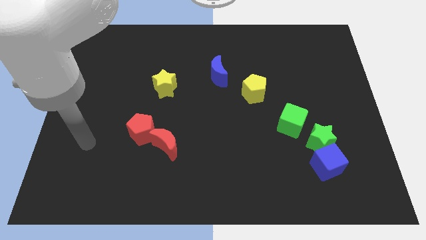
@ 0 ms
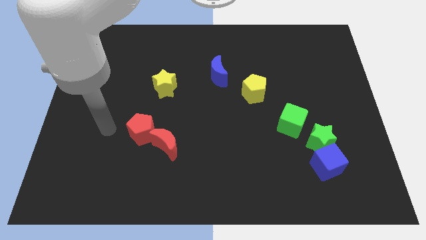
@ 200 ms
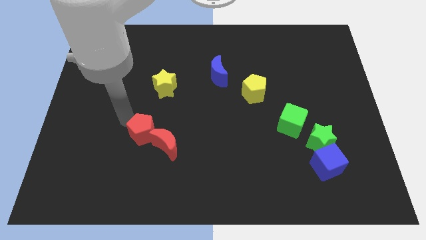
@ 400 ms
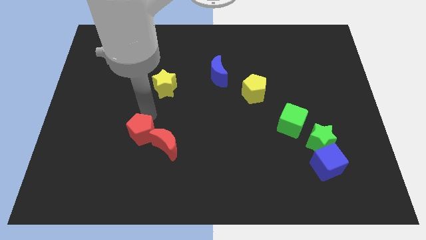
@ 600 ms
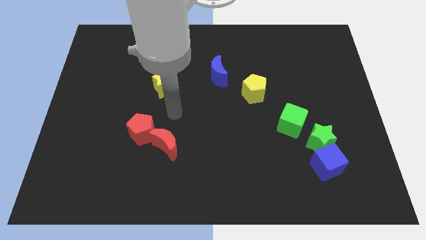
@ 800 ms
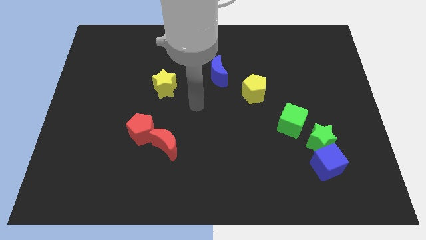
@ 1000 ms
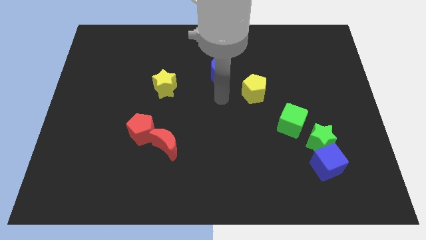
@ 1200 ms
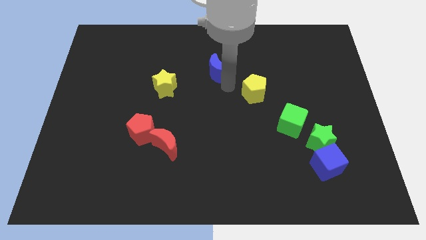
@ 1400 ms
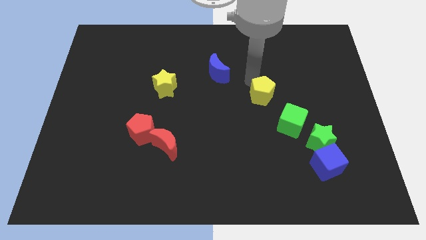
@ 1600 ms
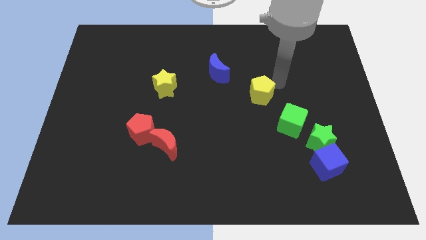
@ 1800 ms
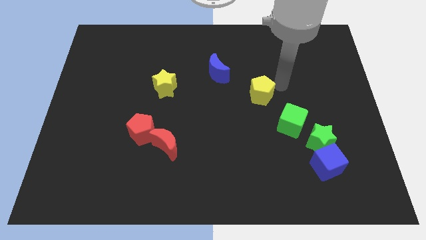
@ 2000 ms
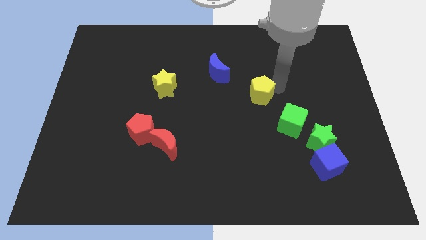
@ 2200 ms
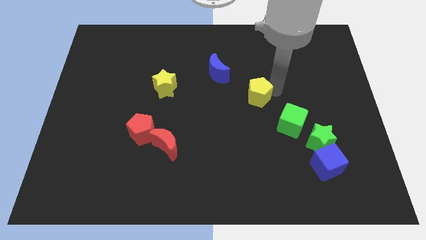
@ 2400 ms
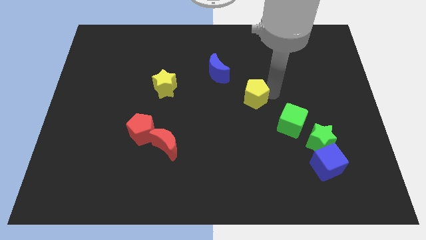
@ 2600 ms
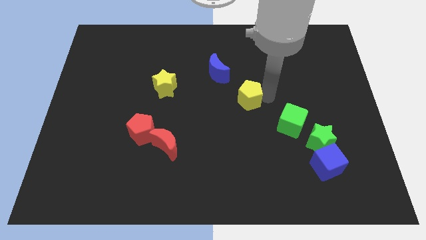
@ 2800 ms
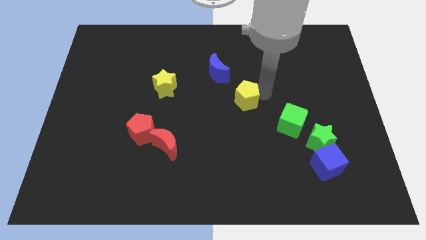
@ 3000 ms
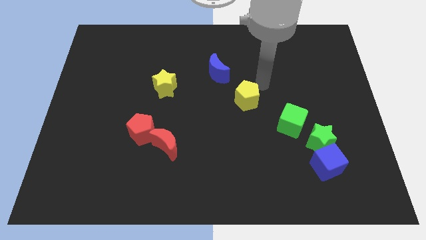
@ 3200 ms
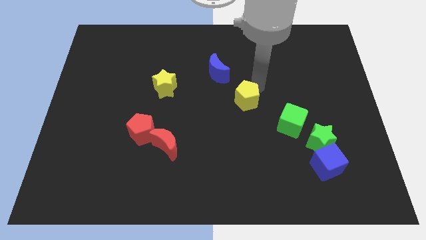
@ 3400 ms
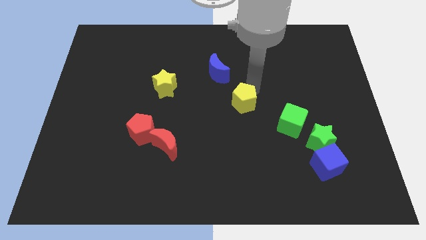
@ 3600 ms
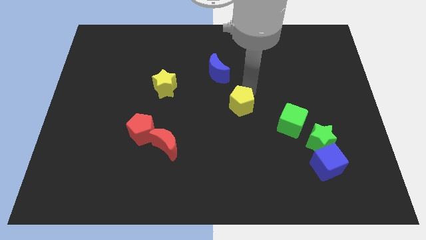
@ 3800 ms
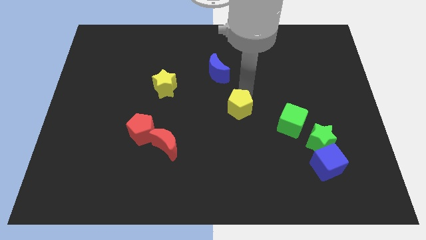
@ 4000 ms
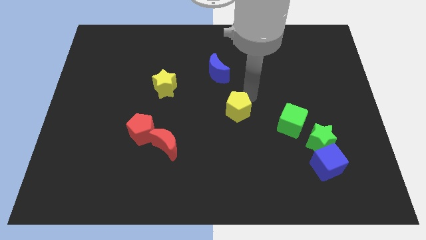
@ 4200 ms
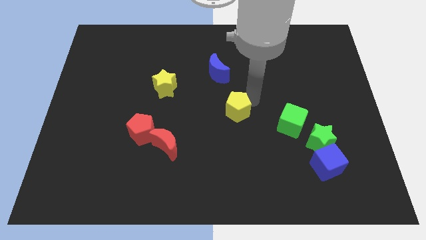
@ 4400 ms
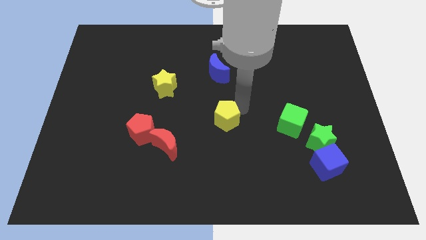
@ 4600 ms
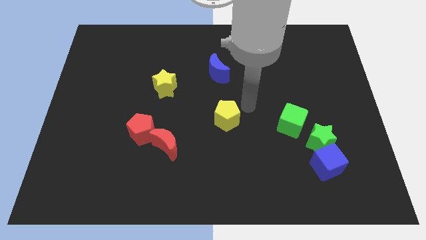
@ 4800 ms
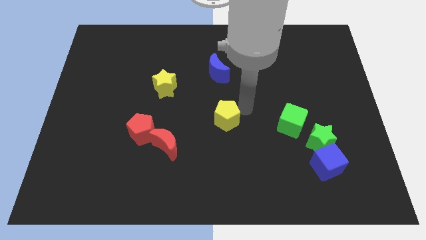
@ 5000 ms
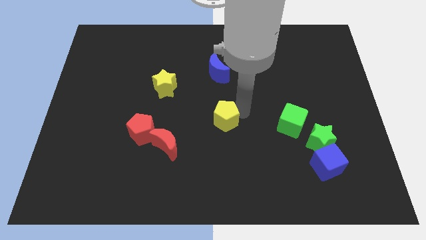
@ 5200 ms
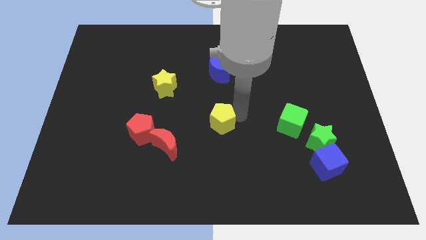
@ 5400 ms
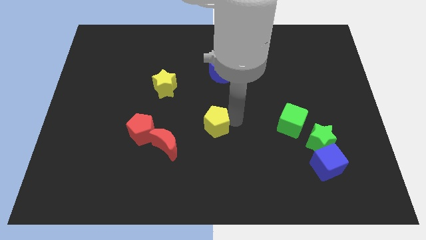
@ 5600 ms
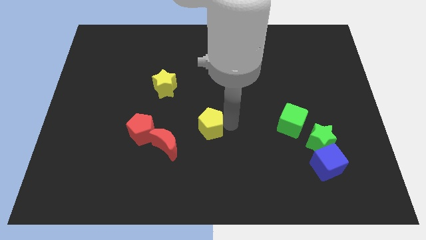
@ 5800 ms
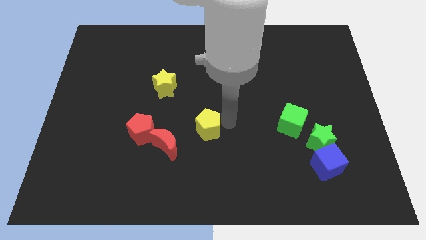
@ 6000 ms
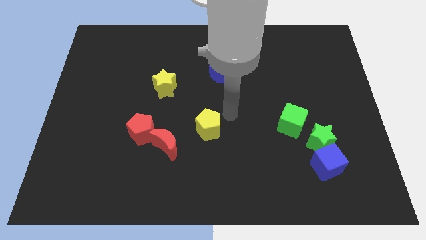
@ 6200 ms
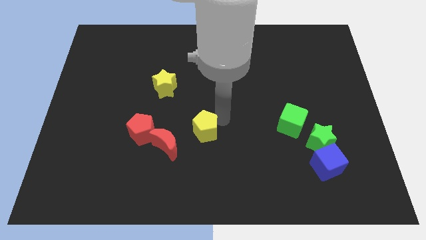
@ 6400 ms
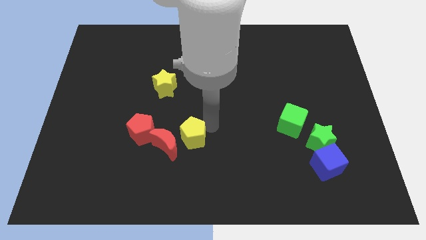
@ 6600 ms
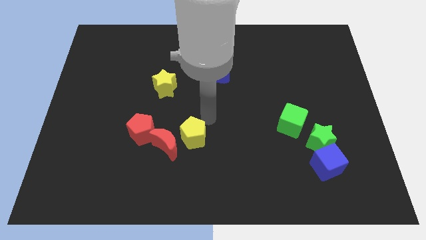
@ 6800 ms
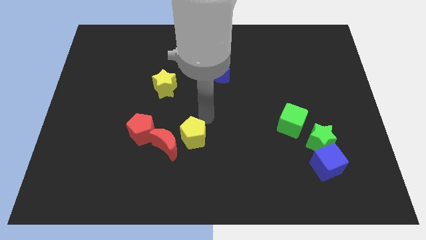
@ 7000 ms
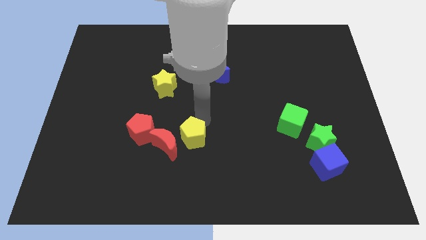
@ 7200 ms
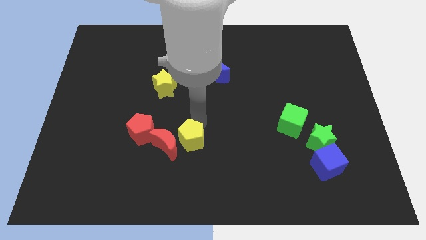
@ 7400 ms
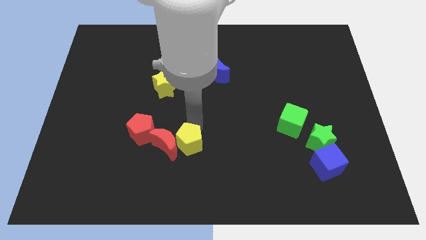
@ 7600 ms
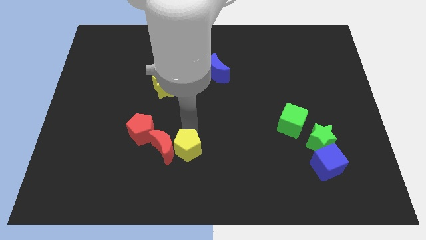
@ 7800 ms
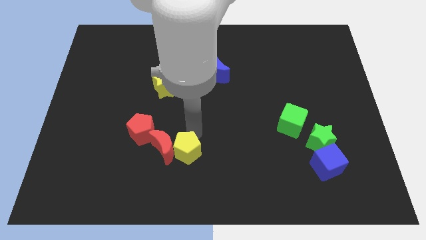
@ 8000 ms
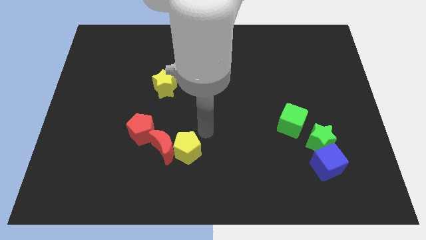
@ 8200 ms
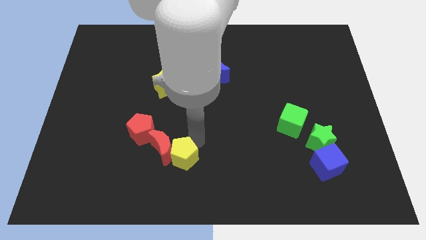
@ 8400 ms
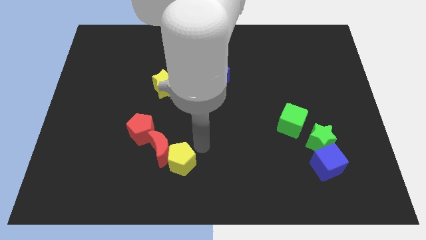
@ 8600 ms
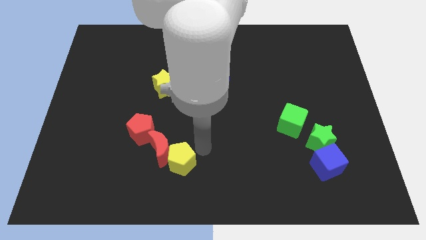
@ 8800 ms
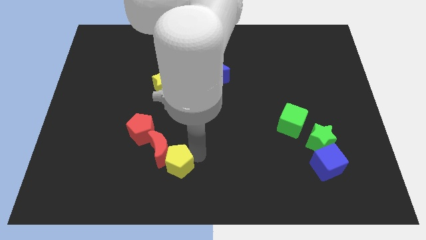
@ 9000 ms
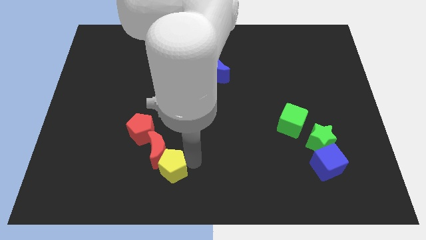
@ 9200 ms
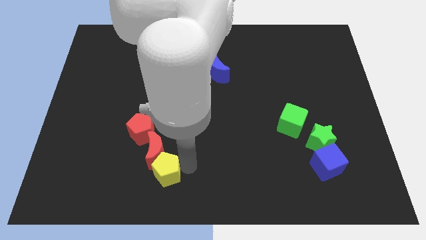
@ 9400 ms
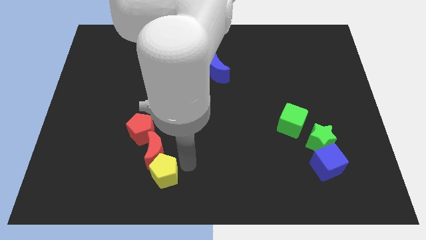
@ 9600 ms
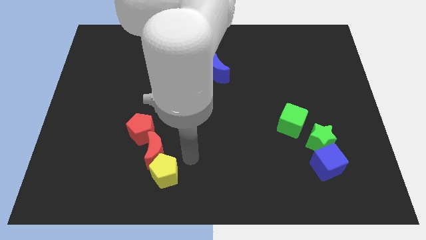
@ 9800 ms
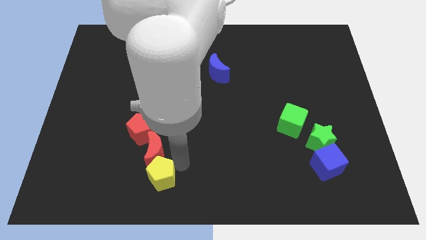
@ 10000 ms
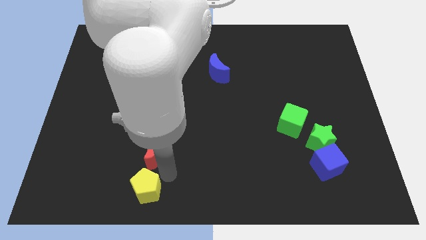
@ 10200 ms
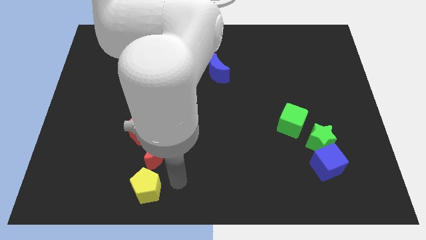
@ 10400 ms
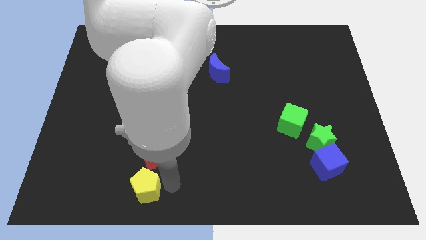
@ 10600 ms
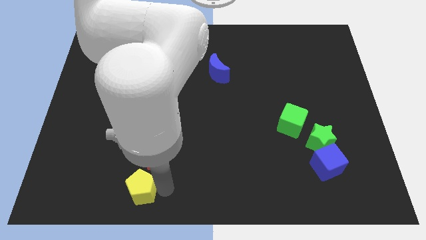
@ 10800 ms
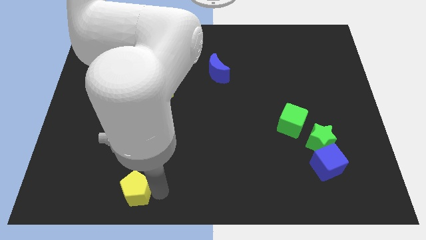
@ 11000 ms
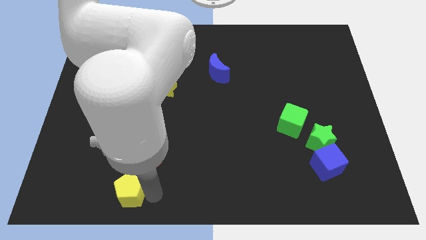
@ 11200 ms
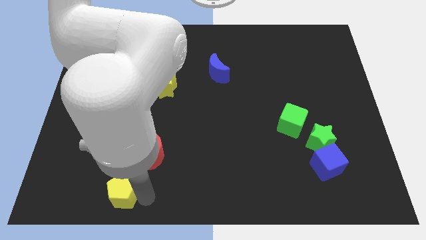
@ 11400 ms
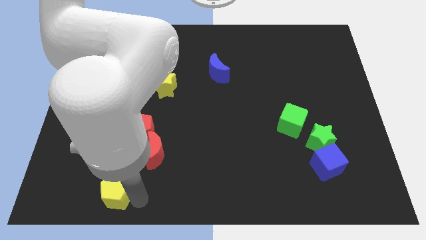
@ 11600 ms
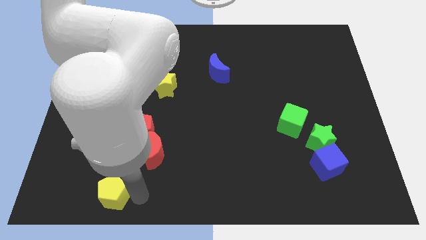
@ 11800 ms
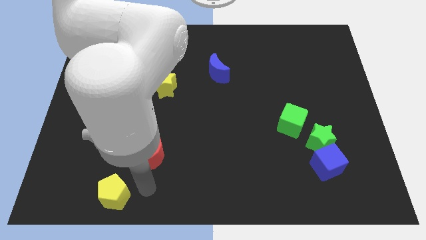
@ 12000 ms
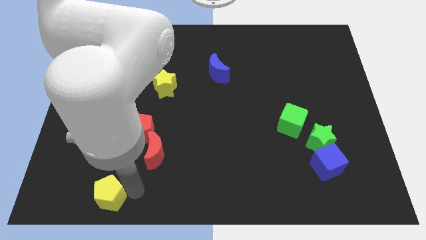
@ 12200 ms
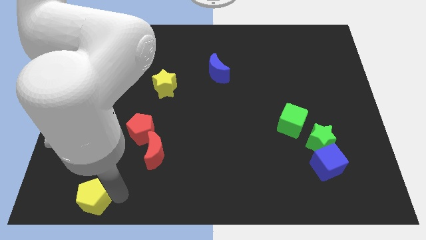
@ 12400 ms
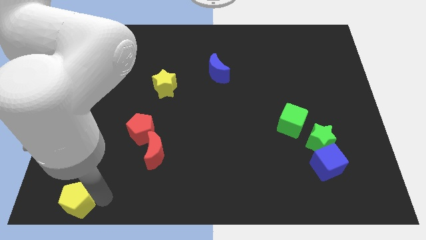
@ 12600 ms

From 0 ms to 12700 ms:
move the yellow pentagon to the lower left corner
